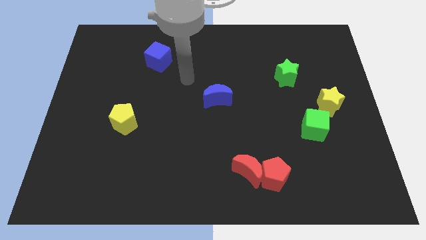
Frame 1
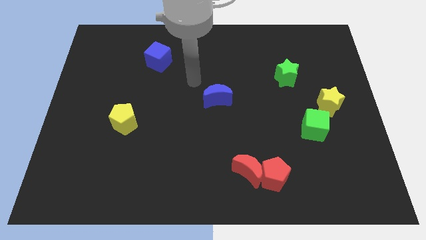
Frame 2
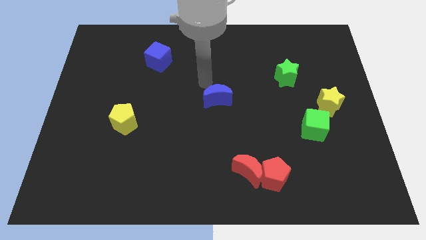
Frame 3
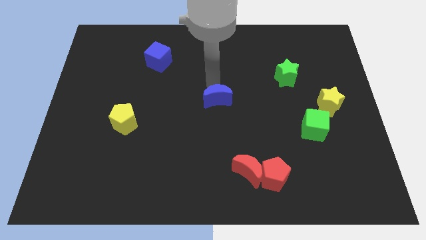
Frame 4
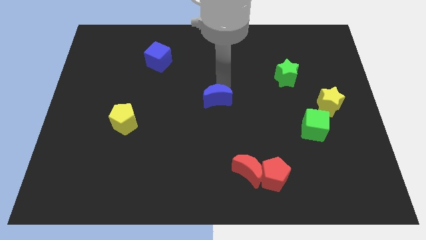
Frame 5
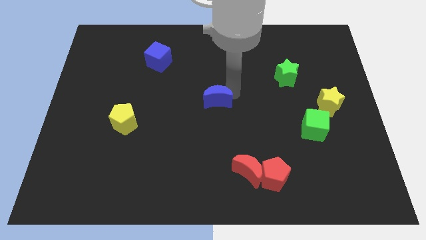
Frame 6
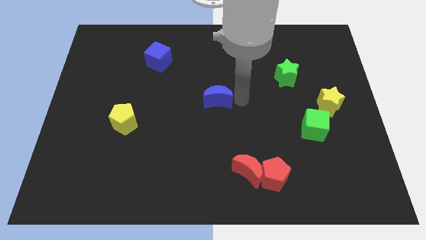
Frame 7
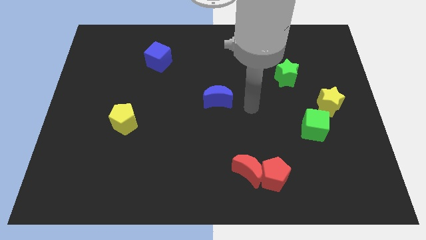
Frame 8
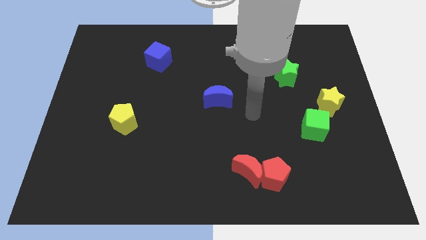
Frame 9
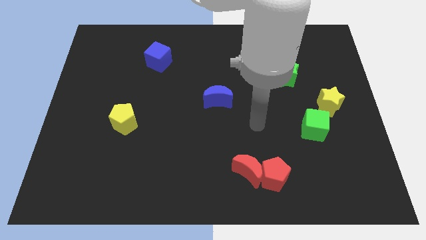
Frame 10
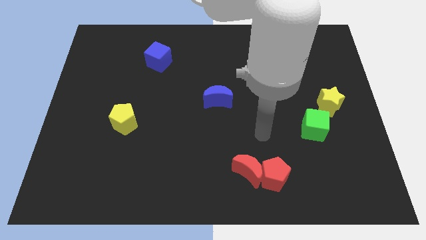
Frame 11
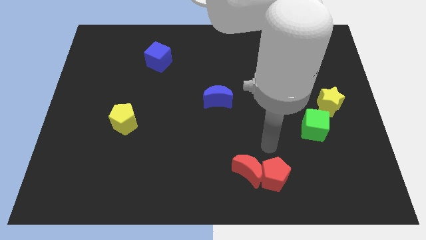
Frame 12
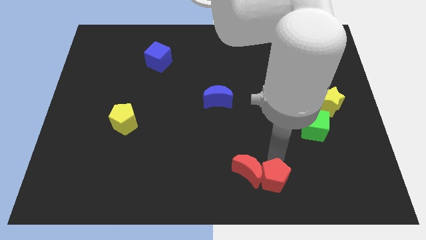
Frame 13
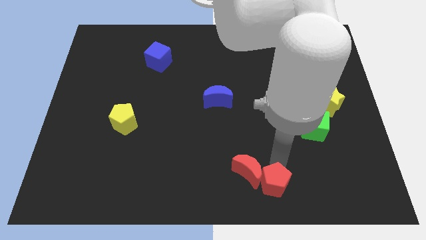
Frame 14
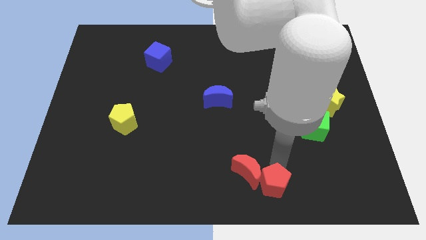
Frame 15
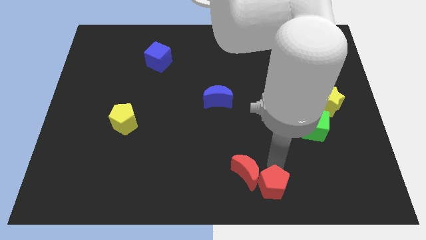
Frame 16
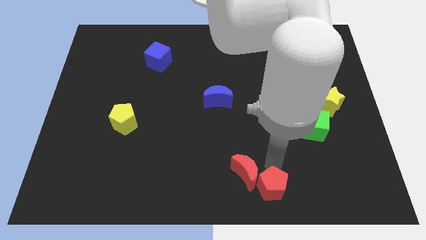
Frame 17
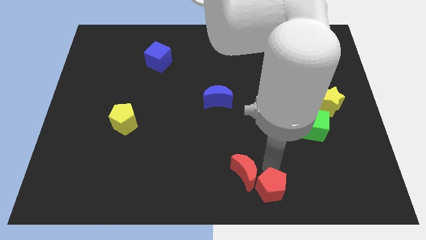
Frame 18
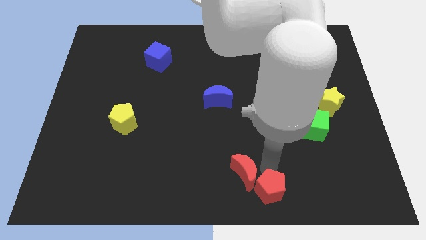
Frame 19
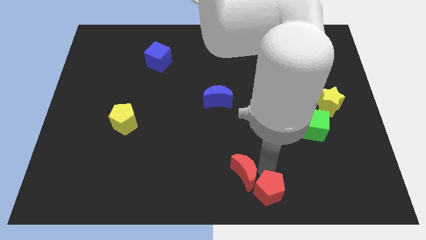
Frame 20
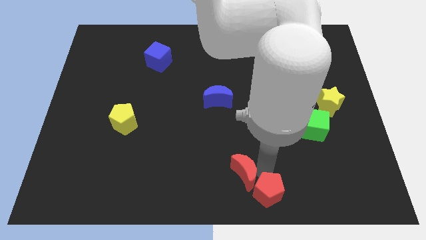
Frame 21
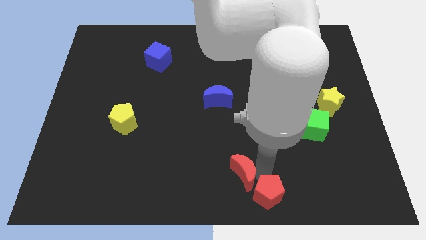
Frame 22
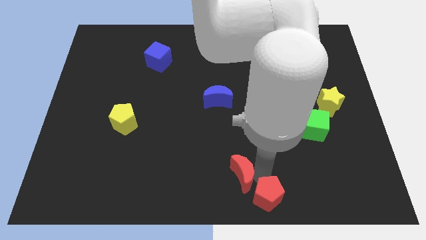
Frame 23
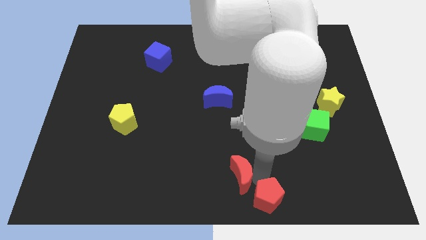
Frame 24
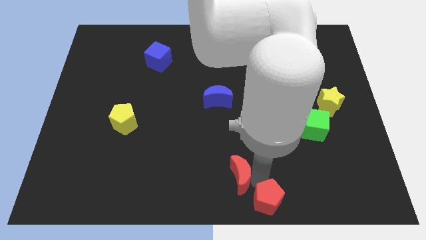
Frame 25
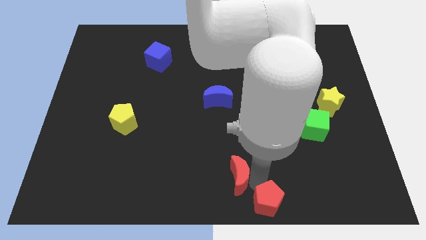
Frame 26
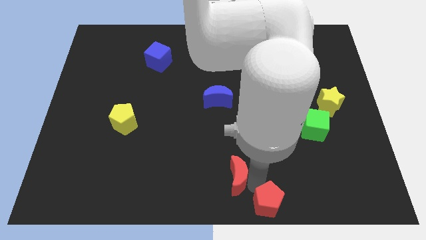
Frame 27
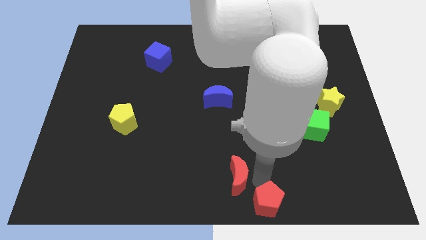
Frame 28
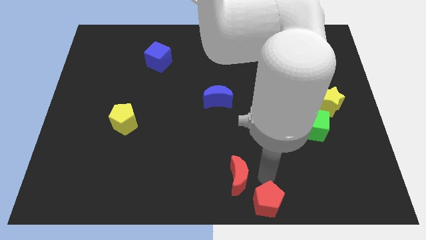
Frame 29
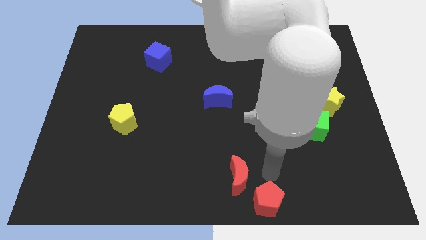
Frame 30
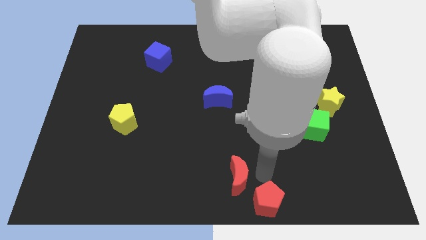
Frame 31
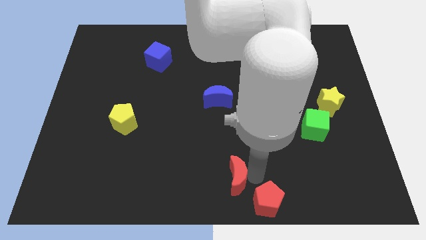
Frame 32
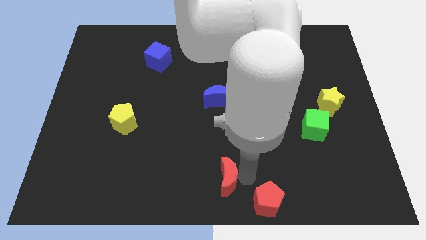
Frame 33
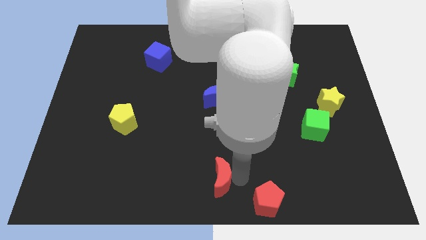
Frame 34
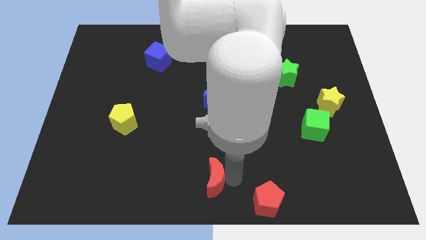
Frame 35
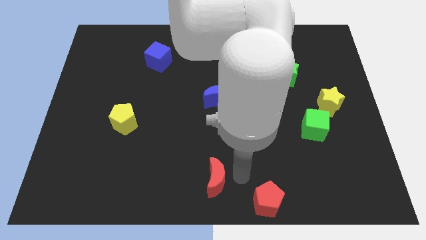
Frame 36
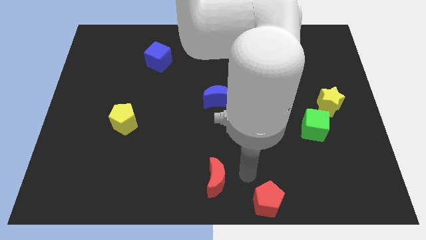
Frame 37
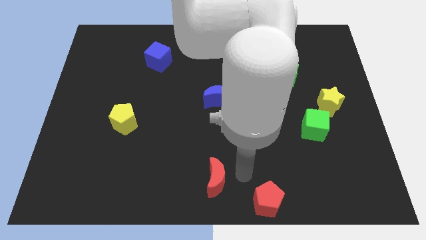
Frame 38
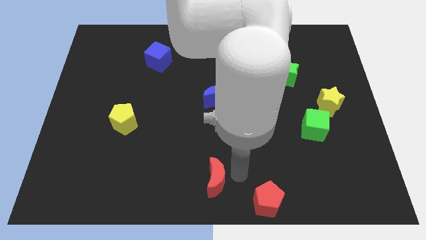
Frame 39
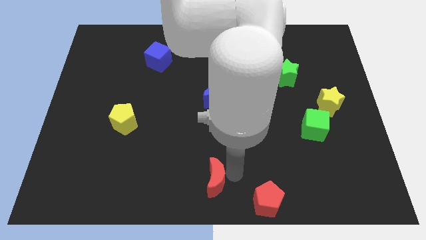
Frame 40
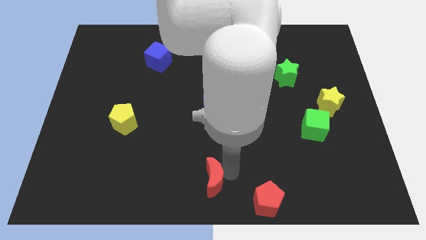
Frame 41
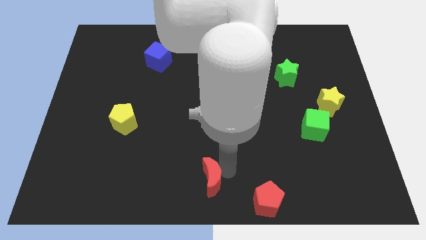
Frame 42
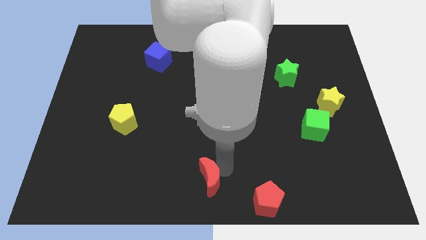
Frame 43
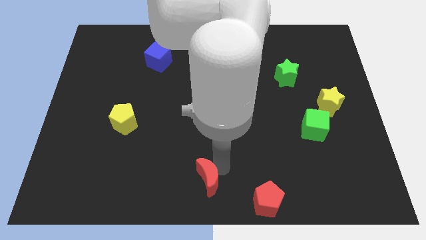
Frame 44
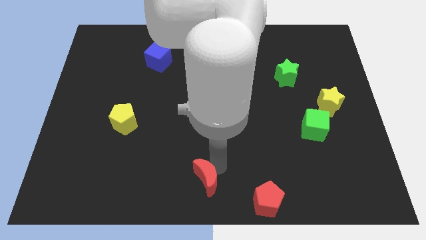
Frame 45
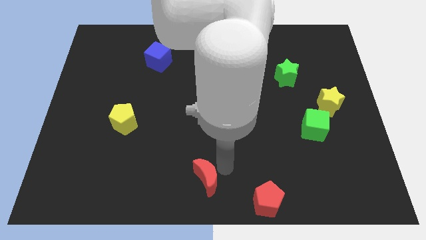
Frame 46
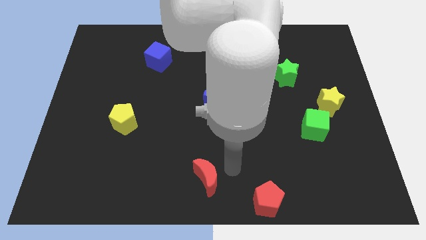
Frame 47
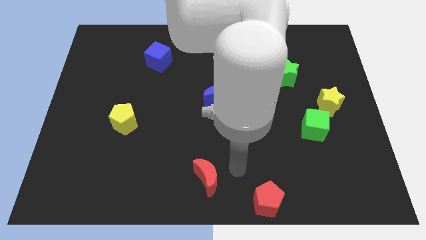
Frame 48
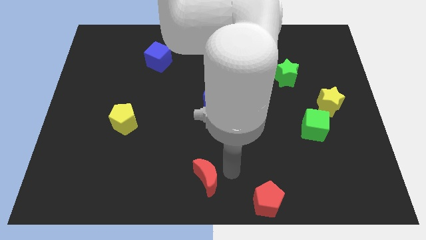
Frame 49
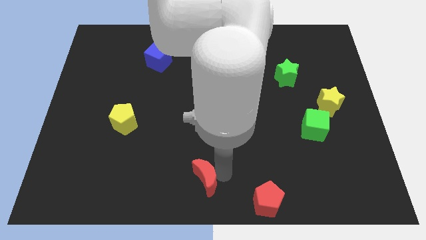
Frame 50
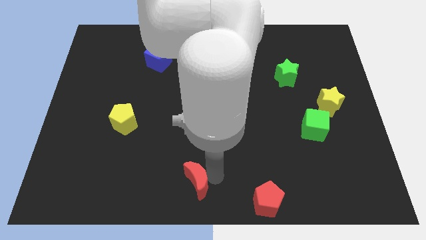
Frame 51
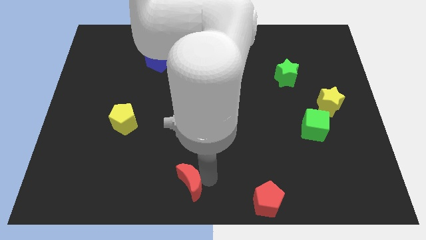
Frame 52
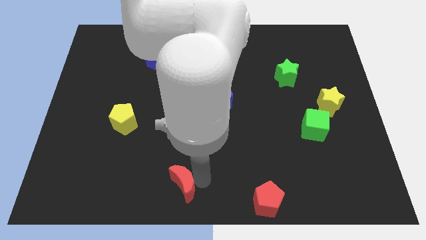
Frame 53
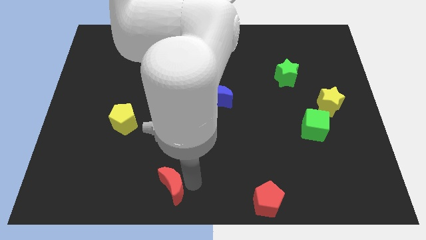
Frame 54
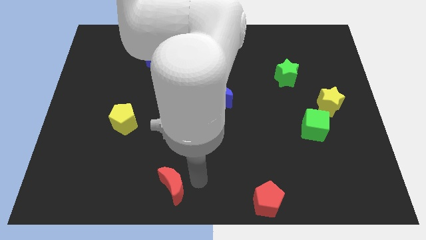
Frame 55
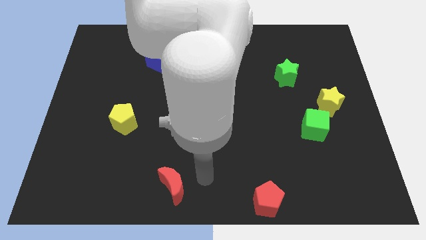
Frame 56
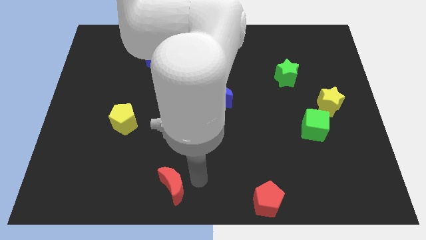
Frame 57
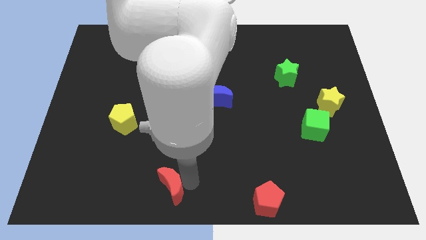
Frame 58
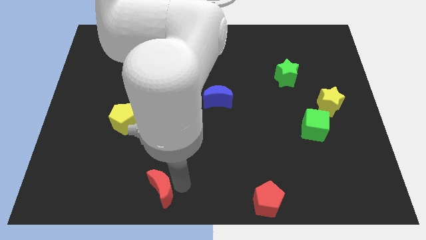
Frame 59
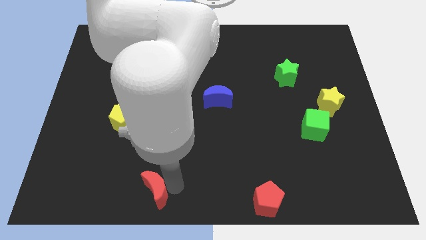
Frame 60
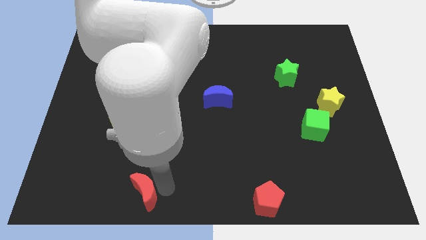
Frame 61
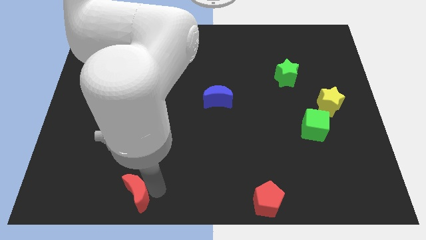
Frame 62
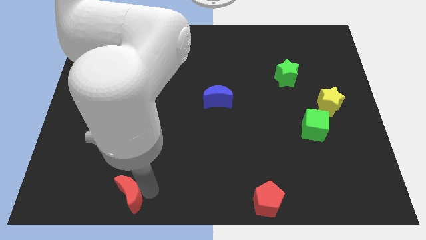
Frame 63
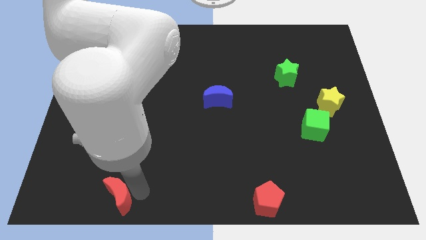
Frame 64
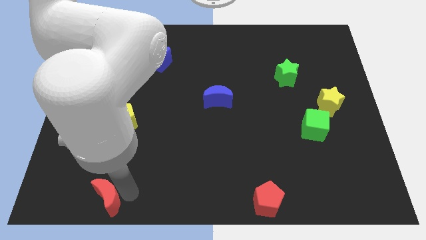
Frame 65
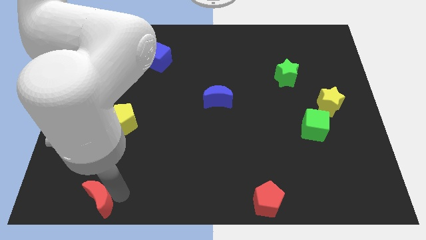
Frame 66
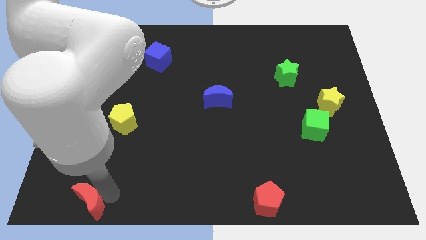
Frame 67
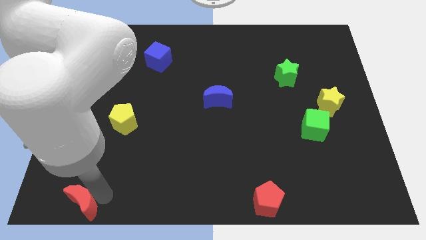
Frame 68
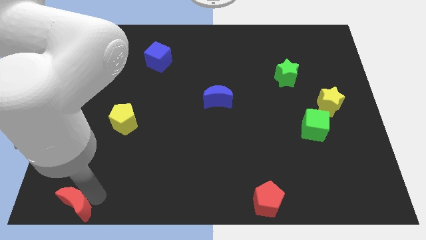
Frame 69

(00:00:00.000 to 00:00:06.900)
push the red moon to the bottom left
